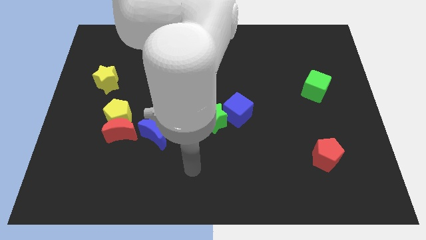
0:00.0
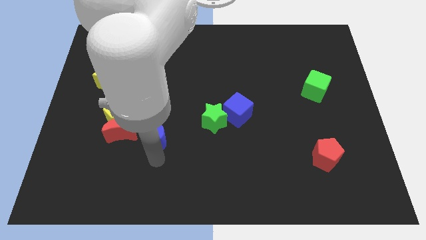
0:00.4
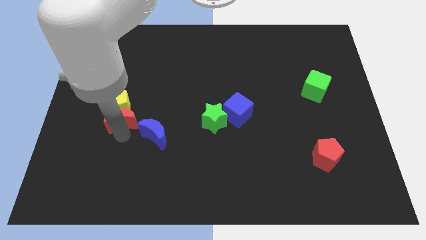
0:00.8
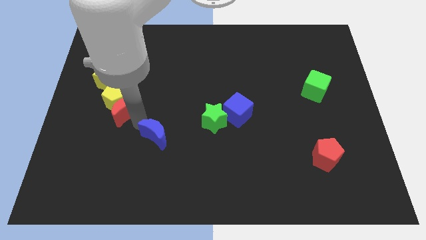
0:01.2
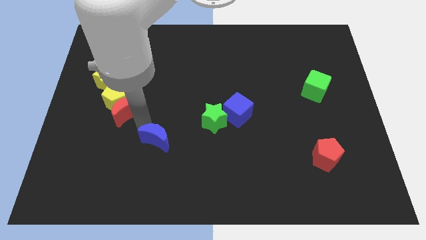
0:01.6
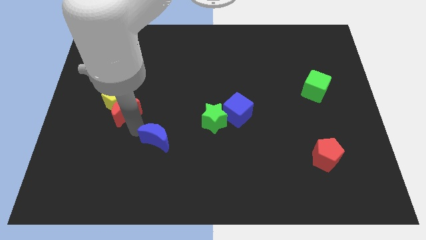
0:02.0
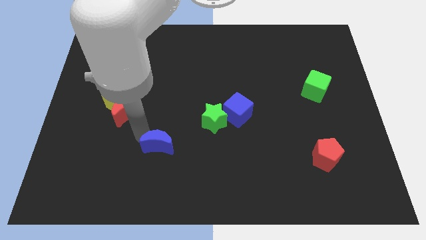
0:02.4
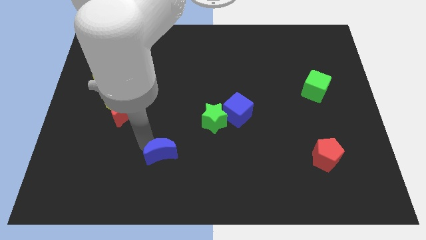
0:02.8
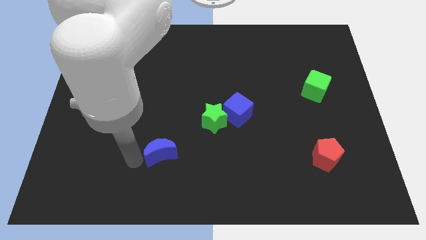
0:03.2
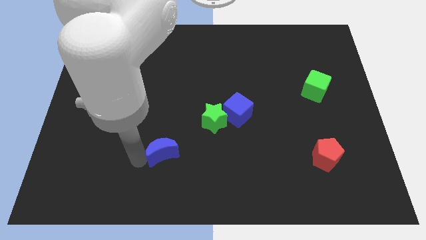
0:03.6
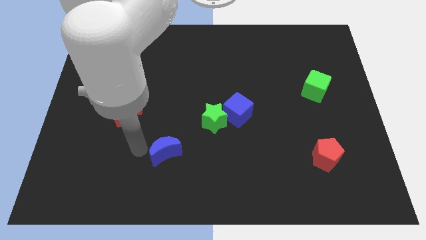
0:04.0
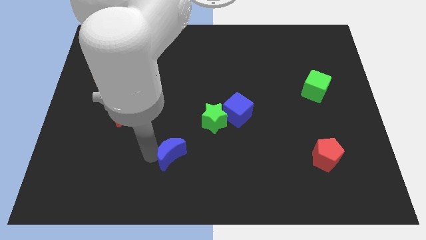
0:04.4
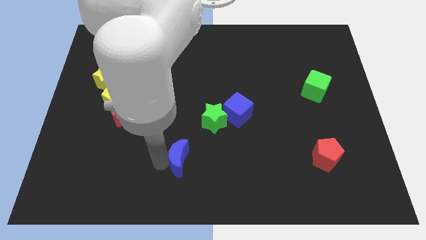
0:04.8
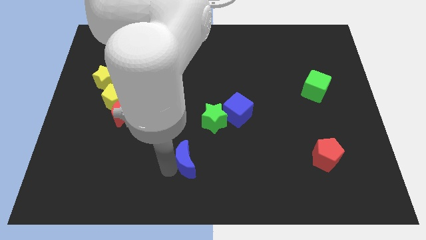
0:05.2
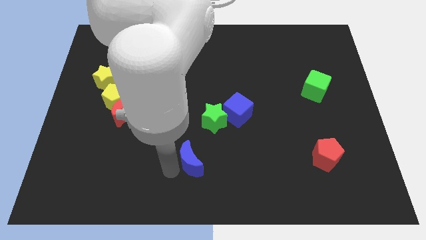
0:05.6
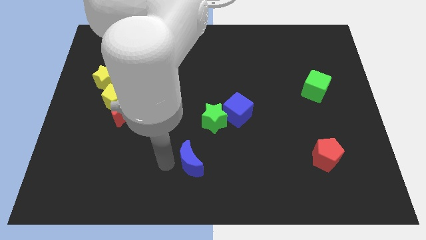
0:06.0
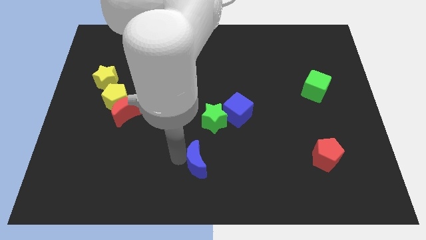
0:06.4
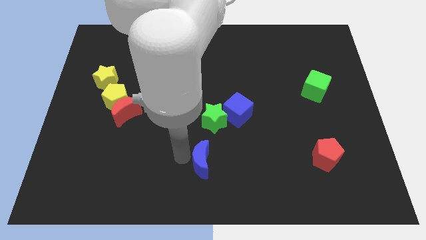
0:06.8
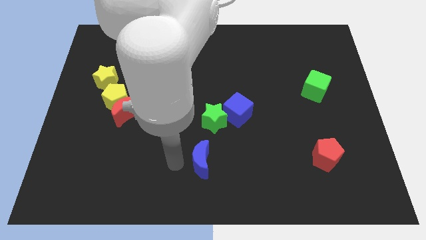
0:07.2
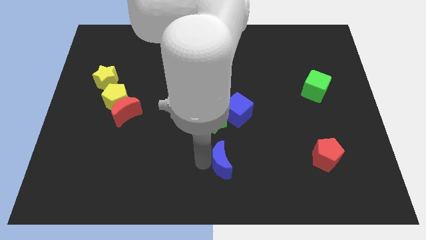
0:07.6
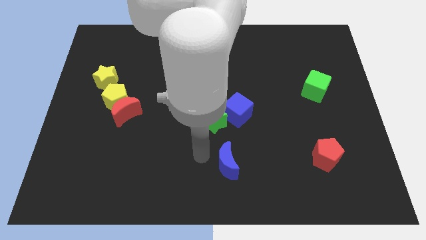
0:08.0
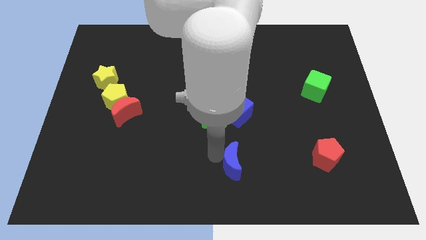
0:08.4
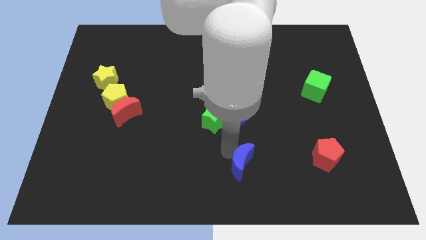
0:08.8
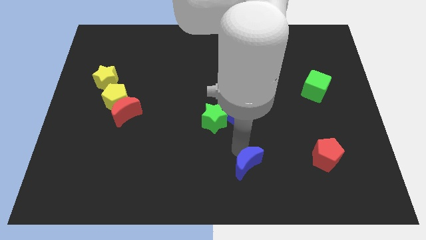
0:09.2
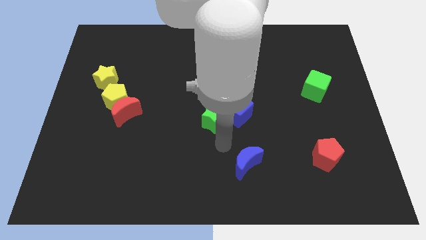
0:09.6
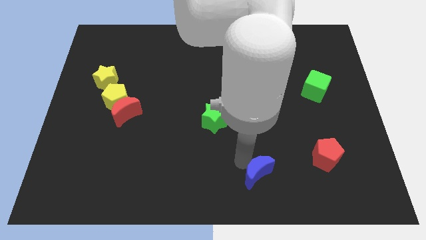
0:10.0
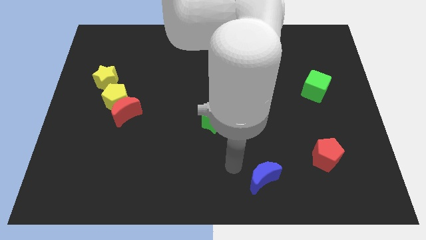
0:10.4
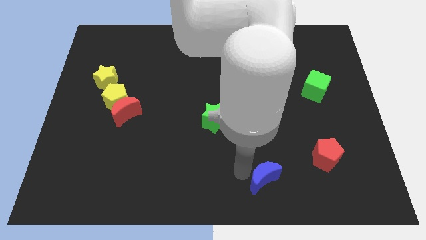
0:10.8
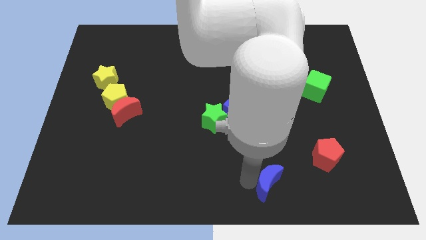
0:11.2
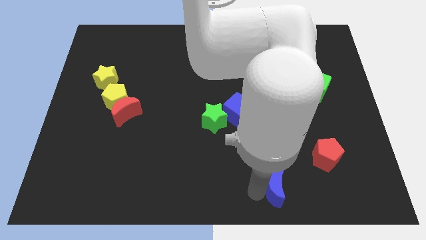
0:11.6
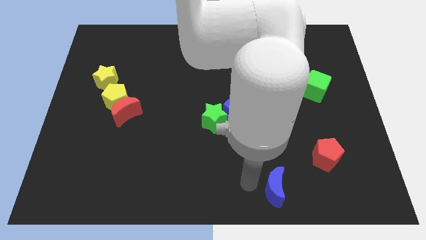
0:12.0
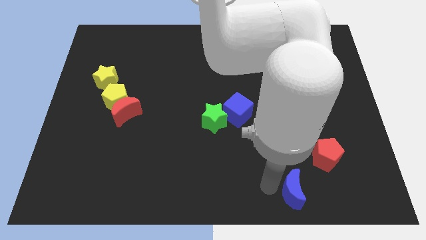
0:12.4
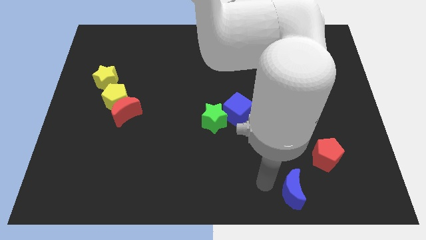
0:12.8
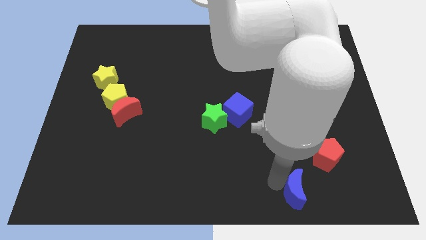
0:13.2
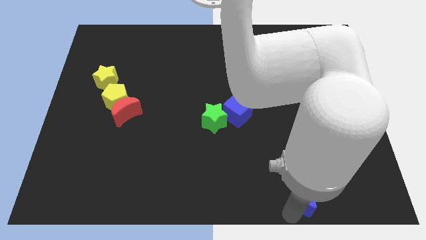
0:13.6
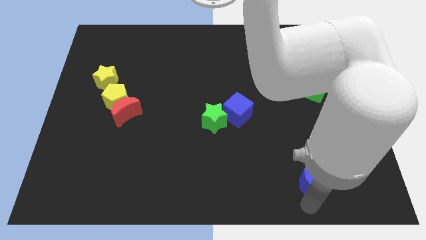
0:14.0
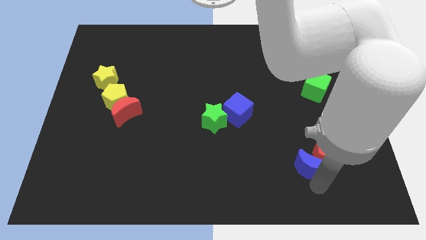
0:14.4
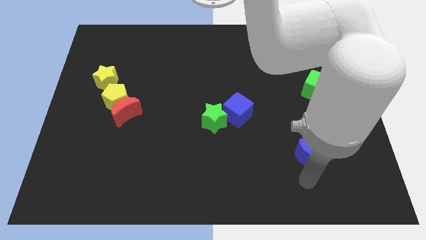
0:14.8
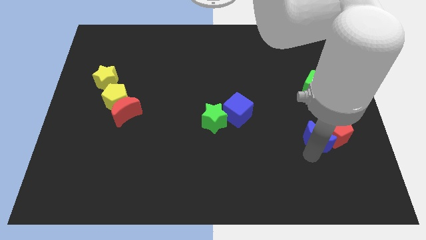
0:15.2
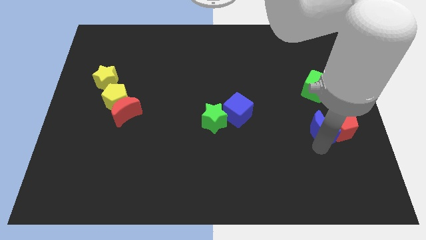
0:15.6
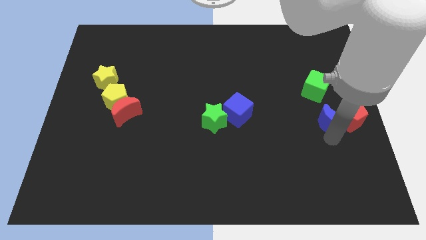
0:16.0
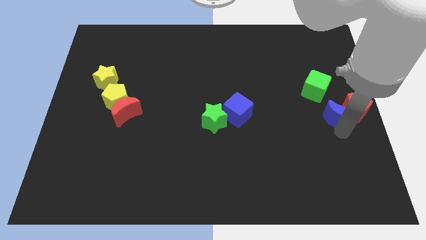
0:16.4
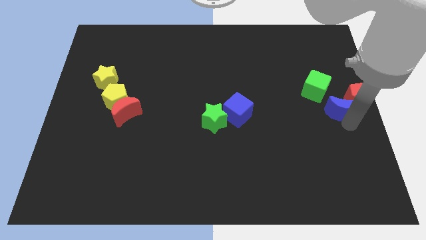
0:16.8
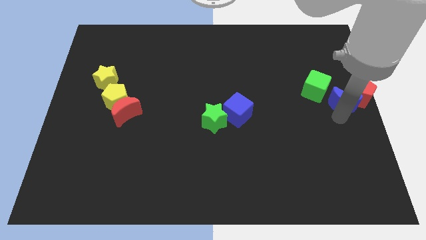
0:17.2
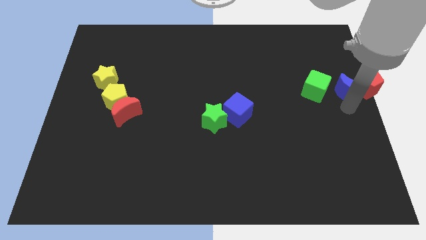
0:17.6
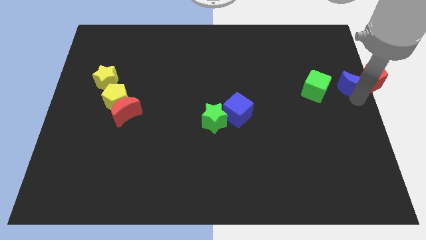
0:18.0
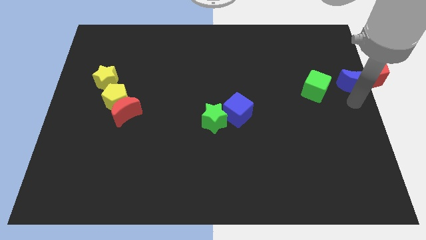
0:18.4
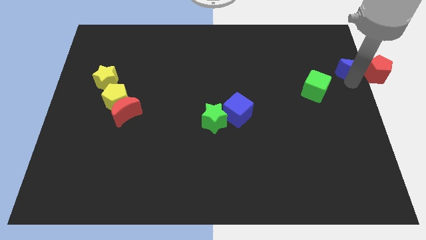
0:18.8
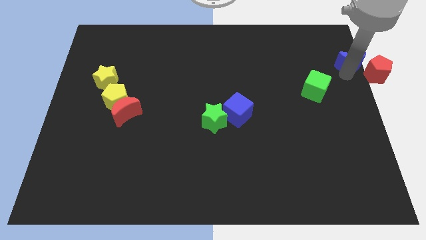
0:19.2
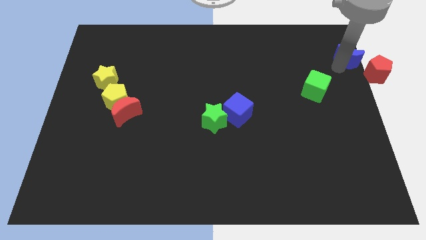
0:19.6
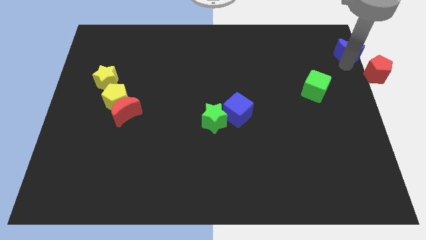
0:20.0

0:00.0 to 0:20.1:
move the blue moon to the top right of the board

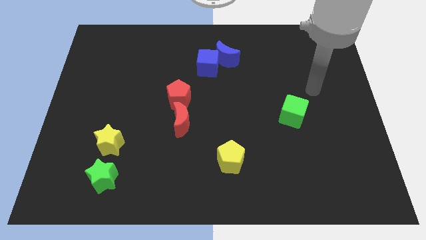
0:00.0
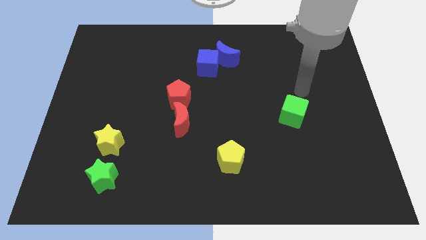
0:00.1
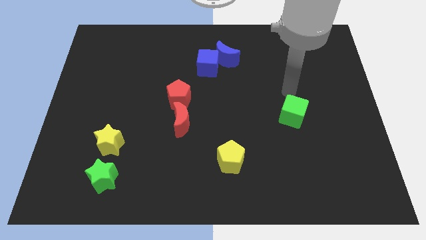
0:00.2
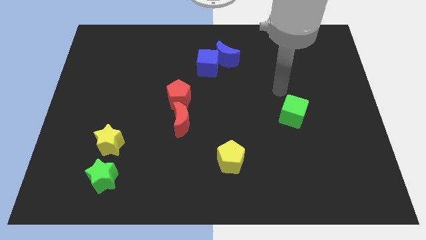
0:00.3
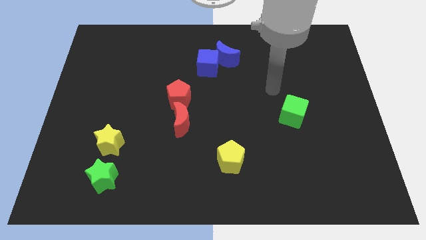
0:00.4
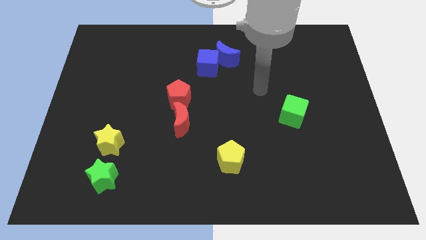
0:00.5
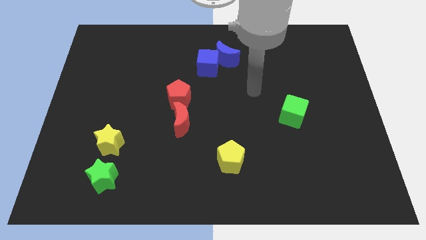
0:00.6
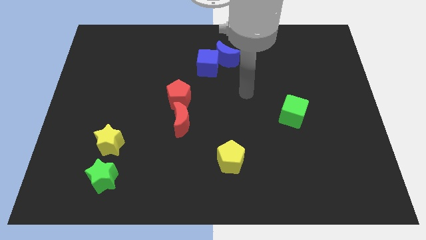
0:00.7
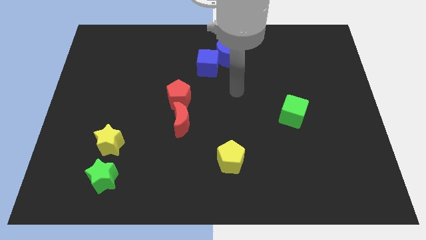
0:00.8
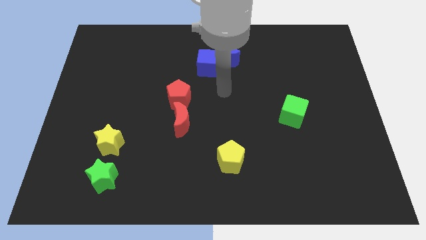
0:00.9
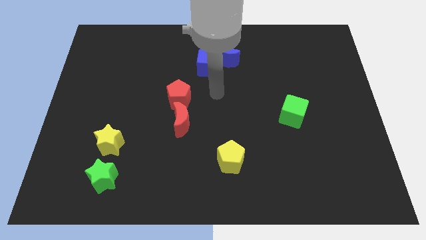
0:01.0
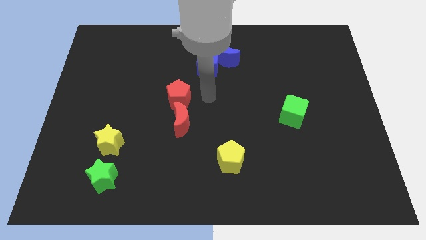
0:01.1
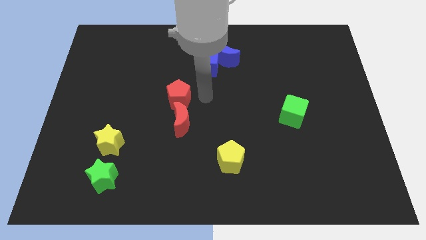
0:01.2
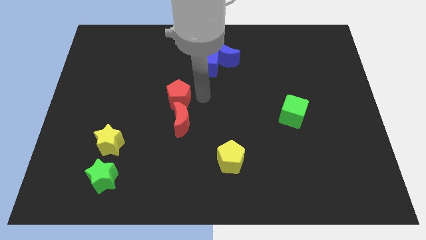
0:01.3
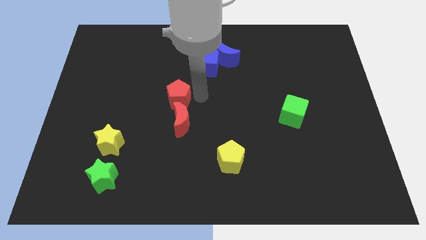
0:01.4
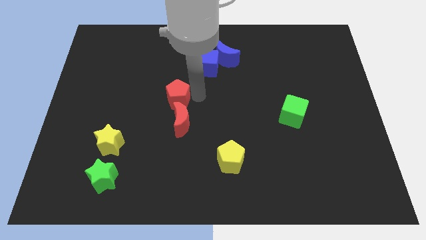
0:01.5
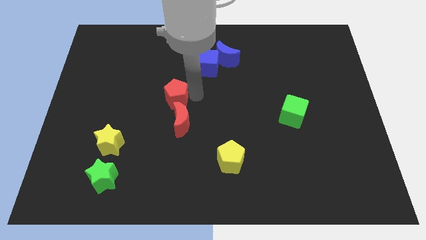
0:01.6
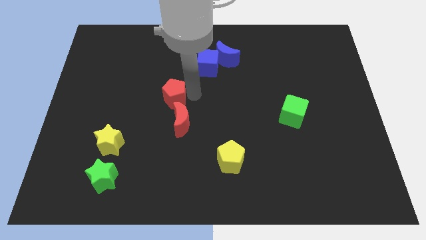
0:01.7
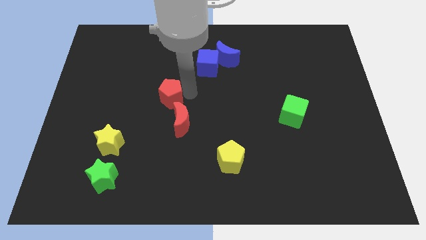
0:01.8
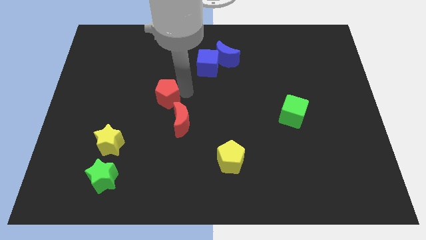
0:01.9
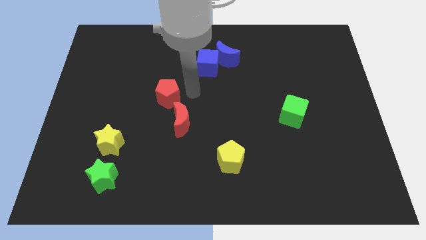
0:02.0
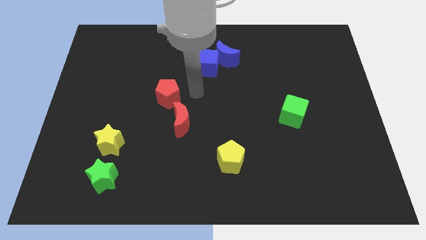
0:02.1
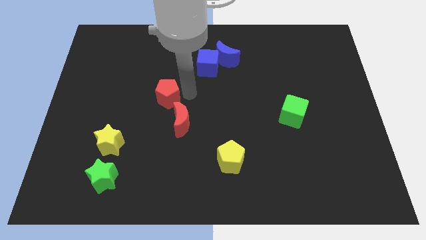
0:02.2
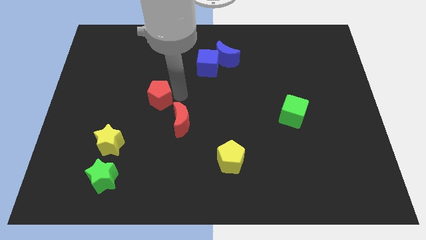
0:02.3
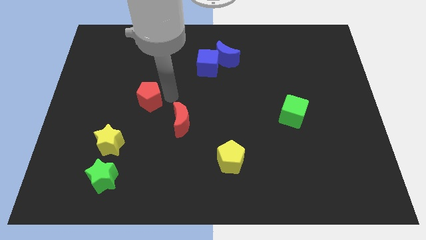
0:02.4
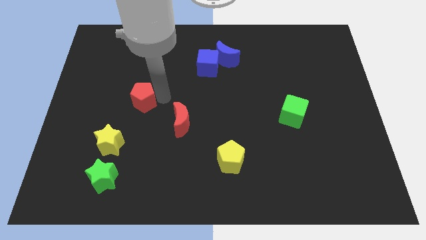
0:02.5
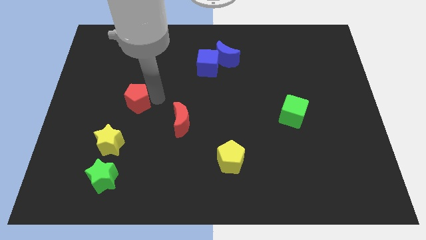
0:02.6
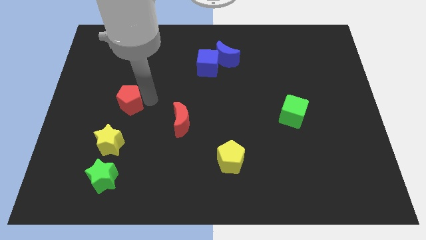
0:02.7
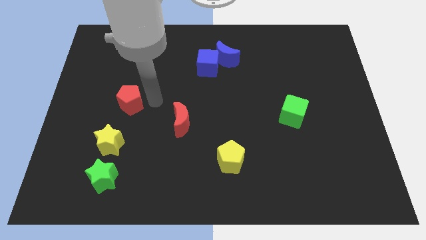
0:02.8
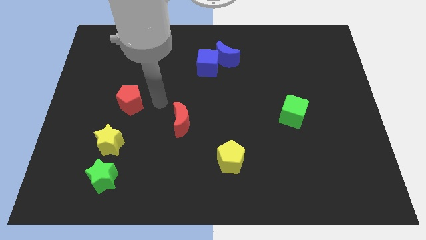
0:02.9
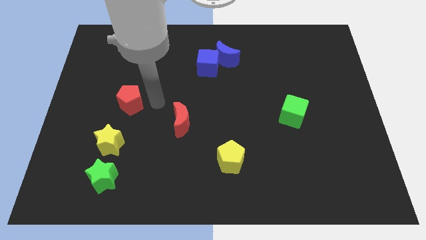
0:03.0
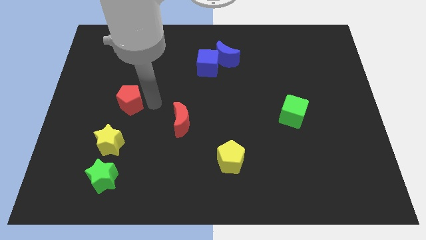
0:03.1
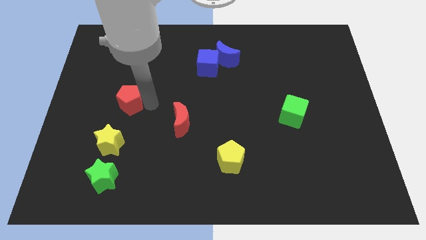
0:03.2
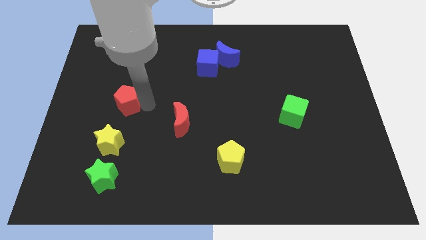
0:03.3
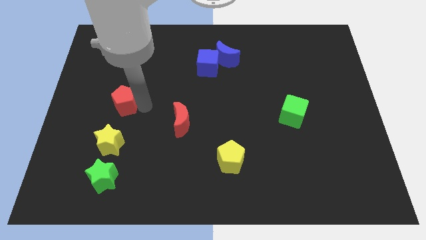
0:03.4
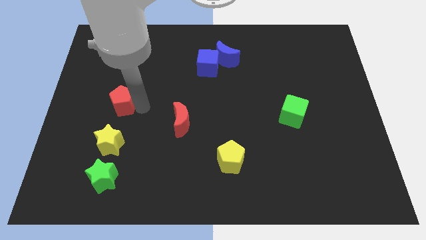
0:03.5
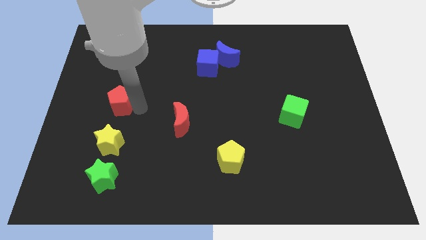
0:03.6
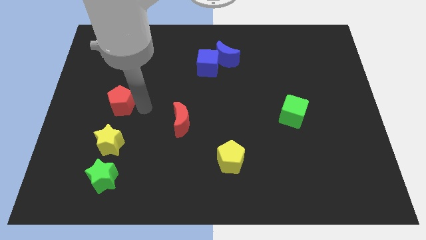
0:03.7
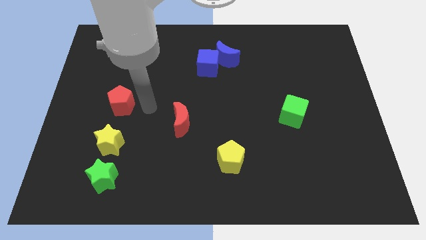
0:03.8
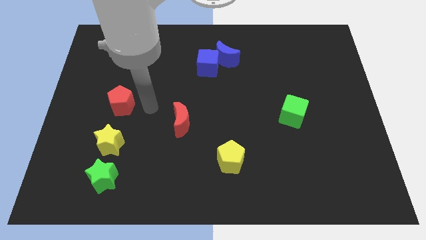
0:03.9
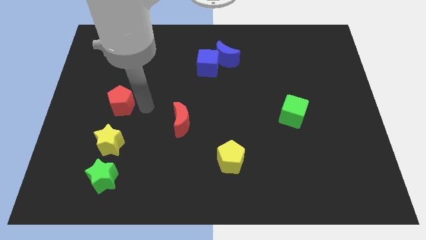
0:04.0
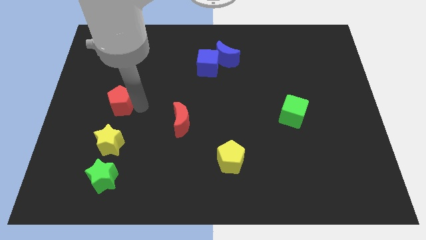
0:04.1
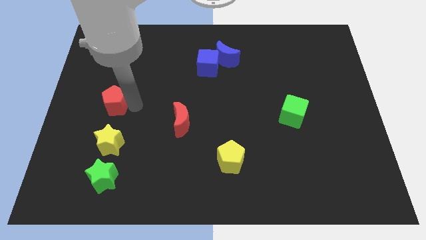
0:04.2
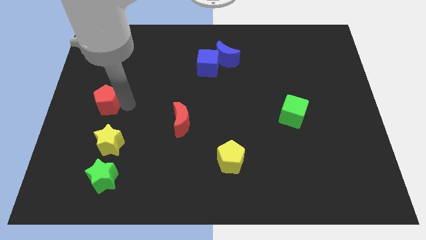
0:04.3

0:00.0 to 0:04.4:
move the red pentagon to the center left
